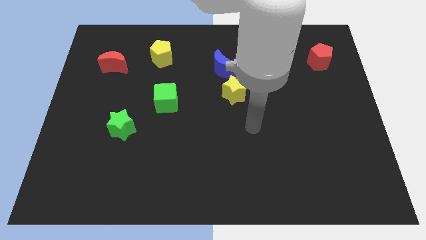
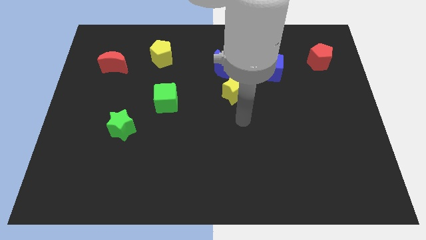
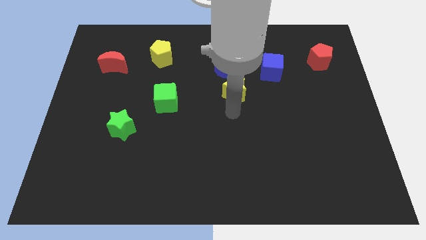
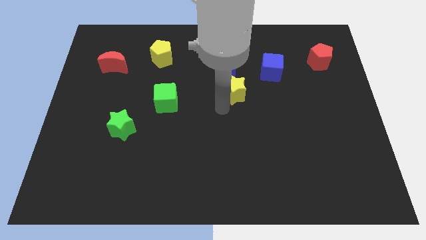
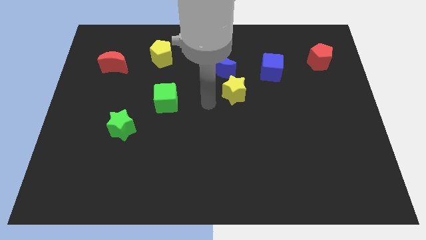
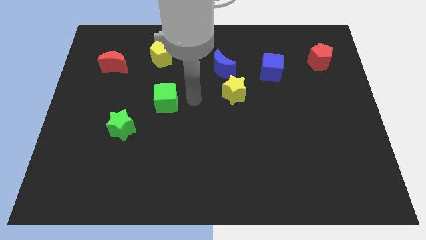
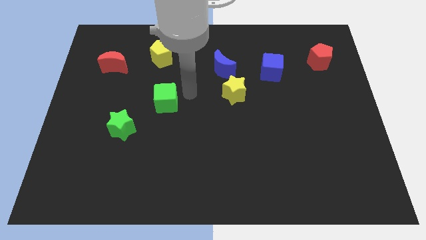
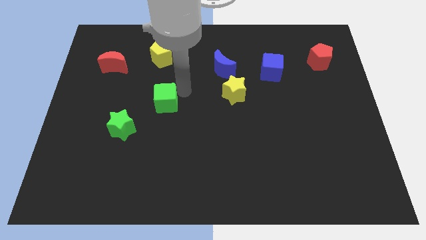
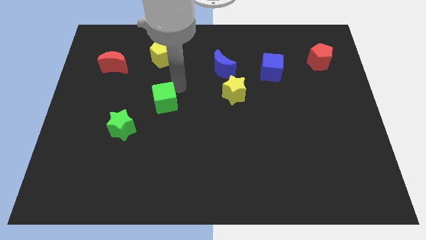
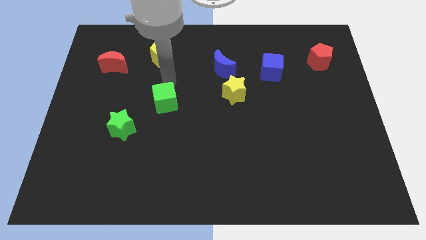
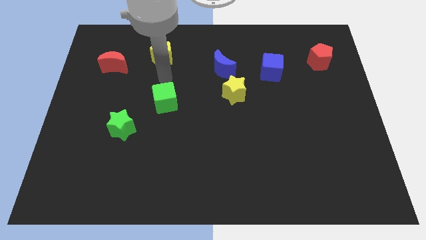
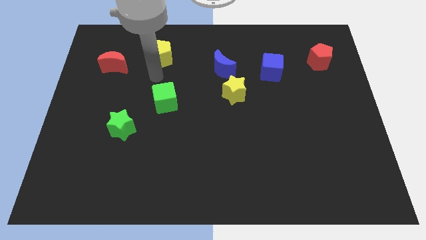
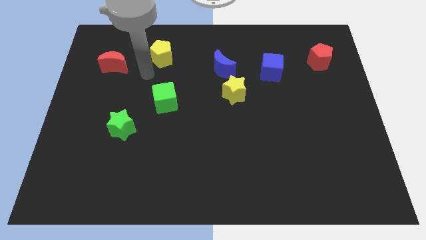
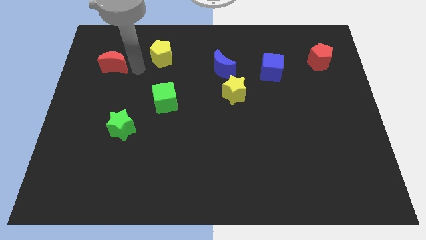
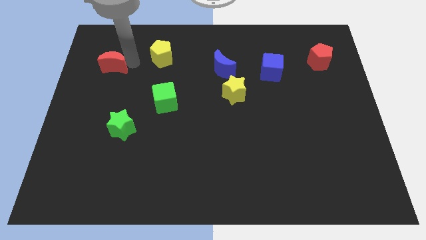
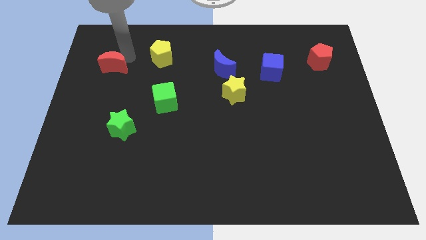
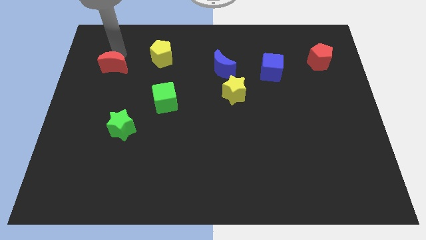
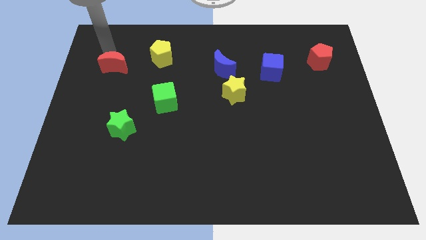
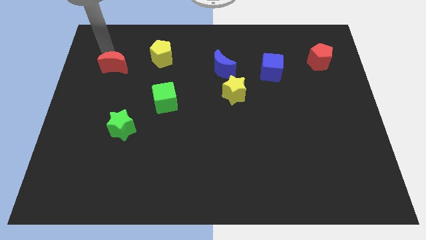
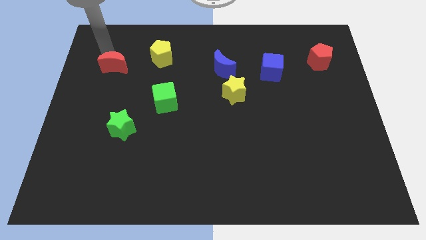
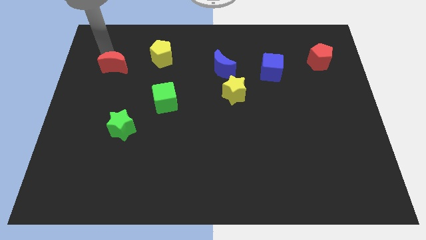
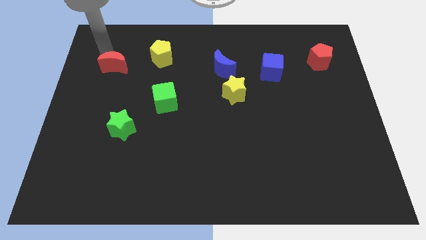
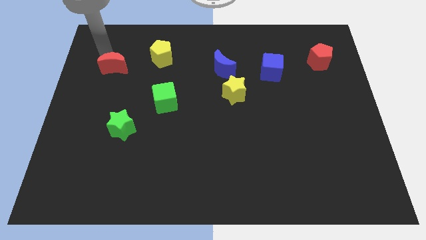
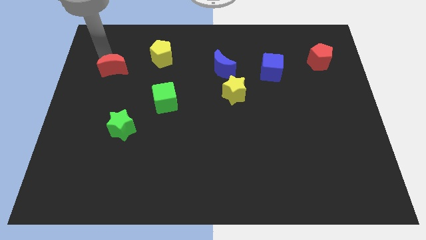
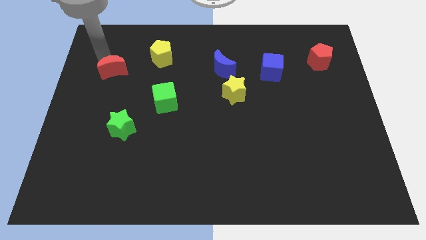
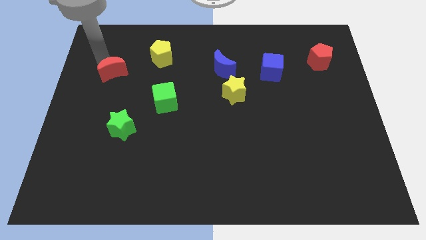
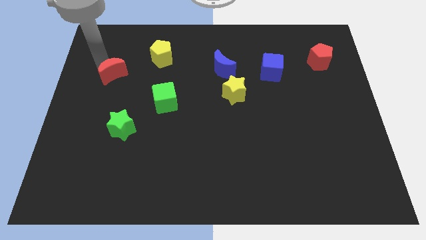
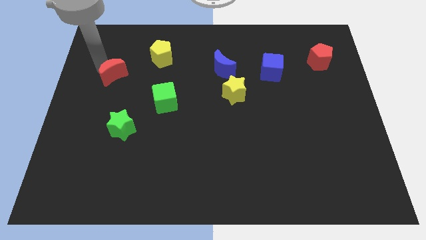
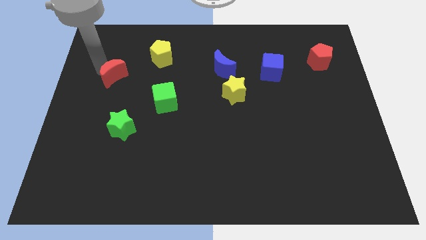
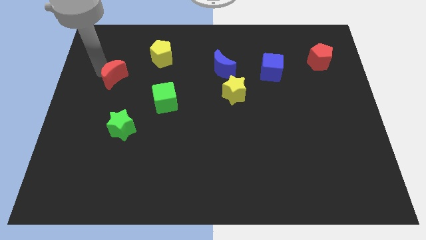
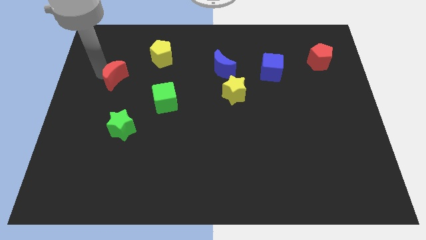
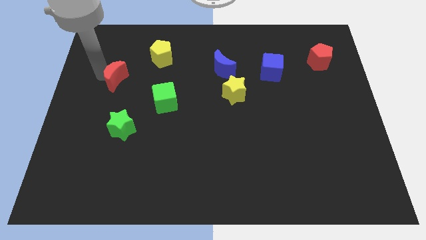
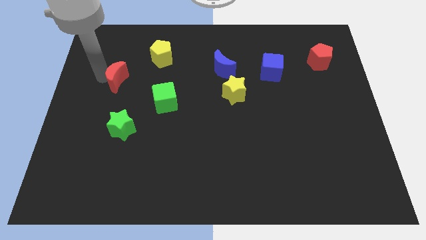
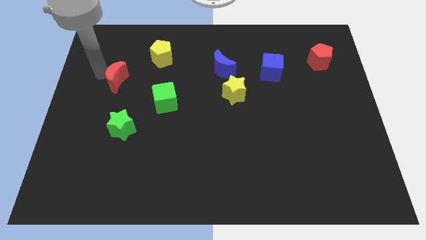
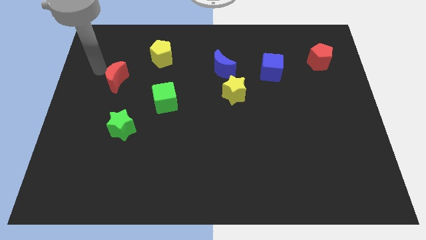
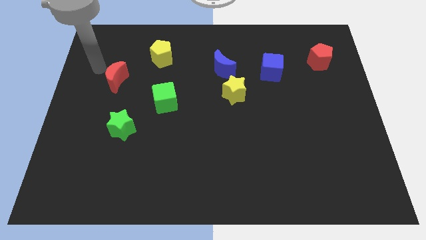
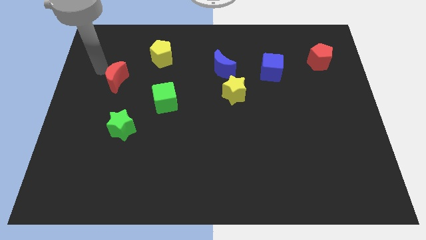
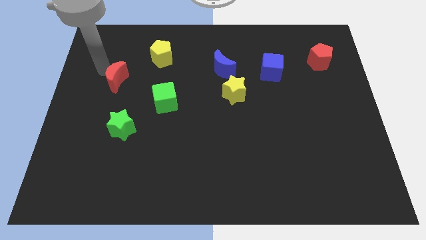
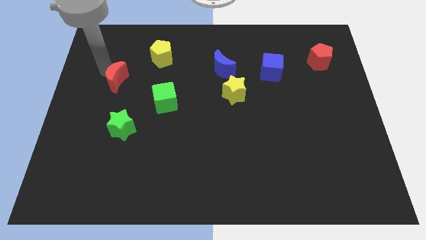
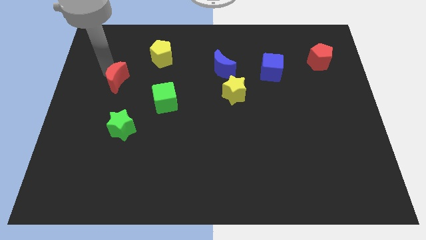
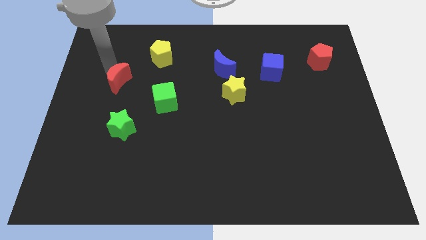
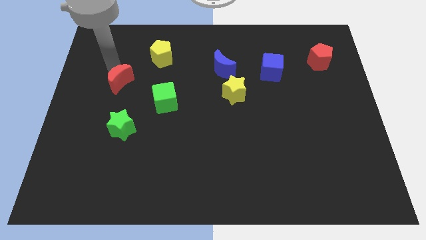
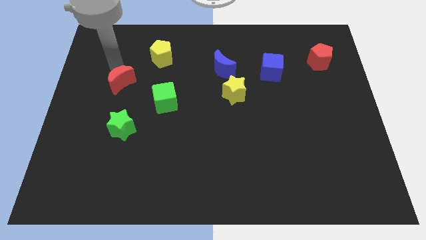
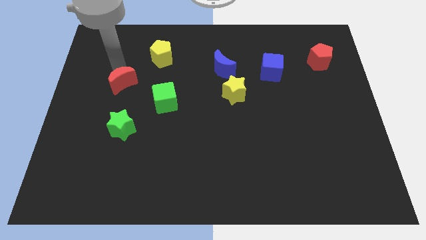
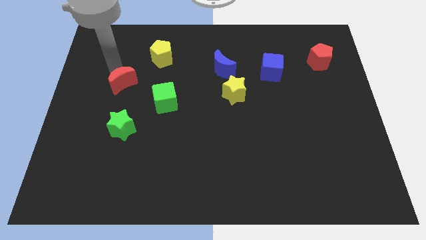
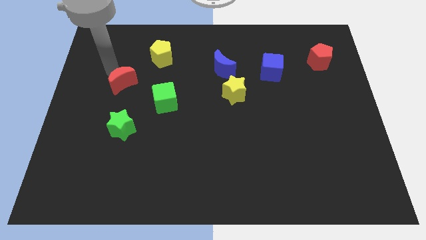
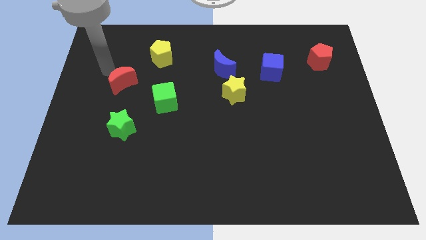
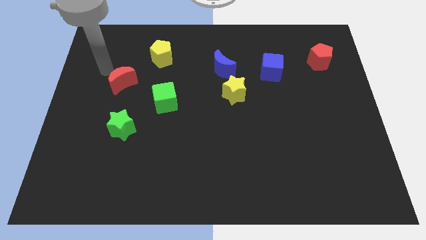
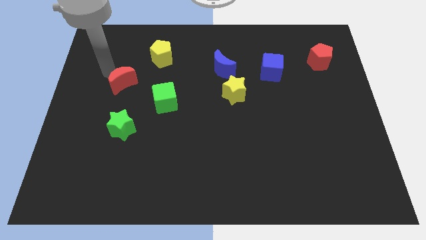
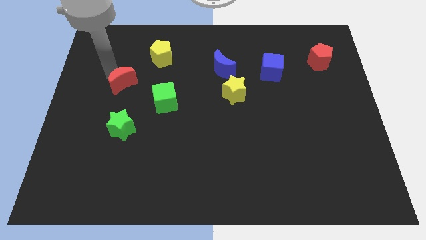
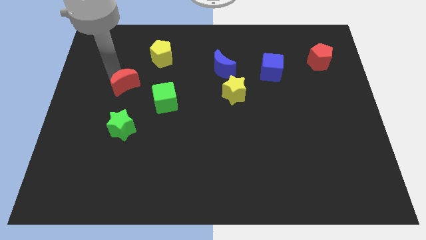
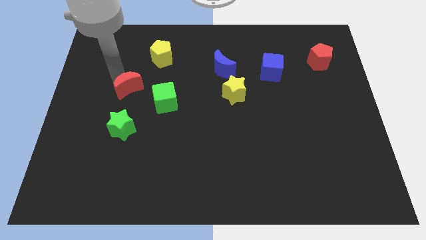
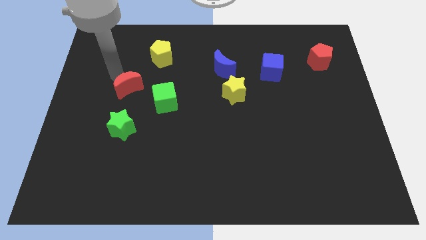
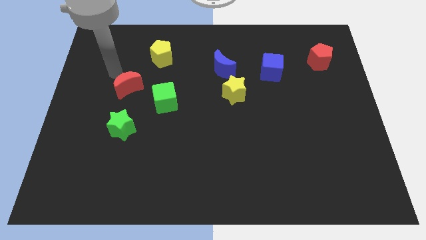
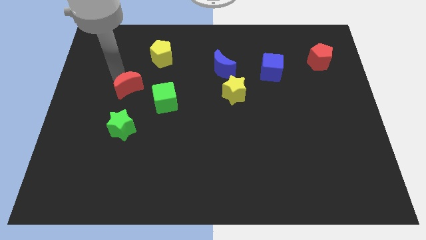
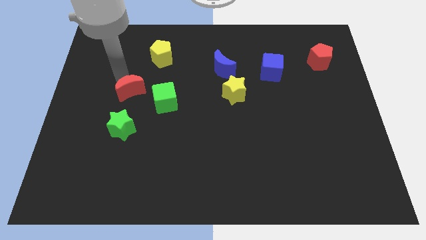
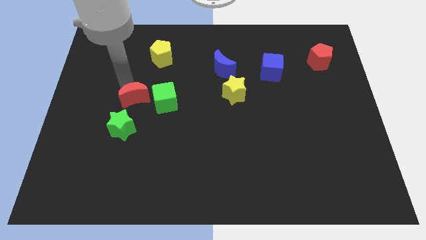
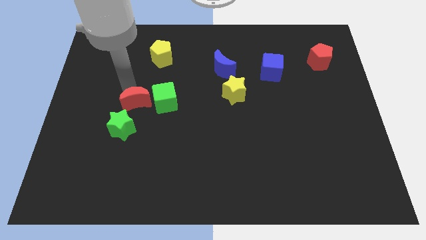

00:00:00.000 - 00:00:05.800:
put the red moon diagonally up and to the right of the green star

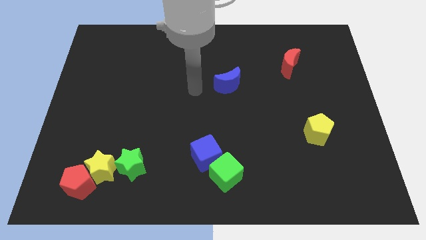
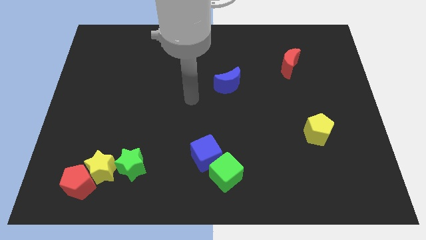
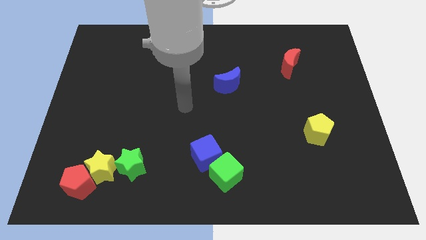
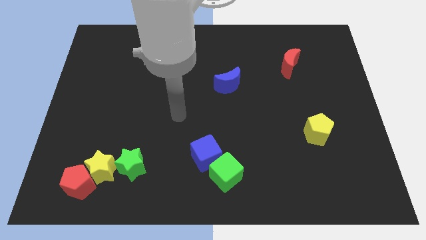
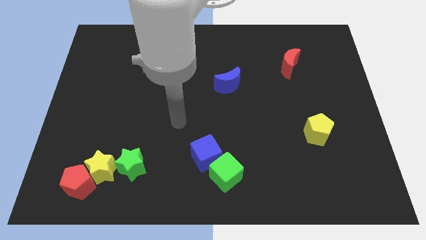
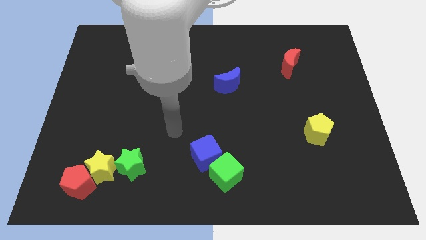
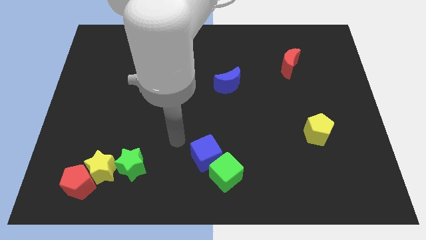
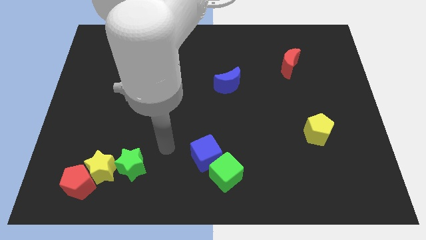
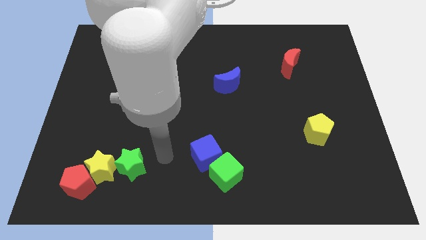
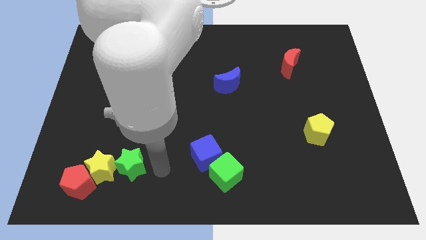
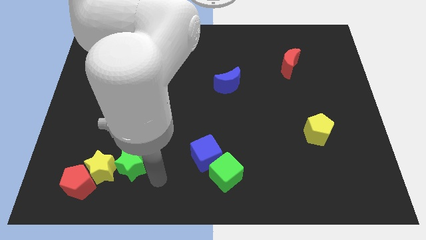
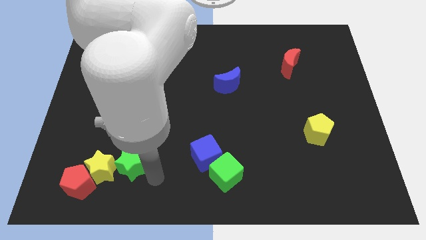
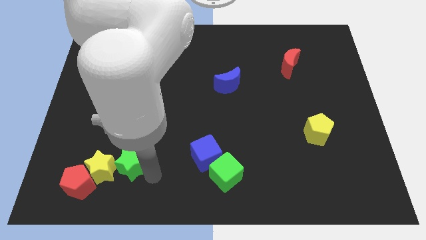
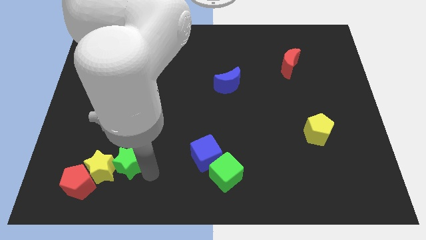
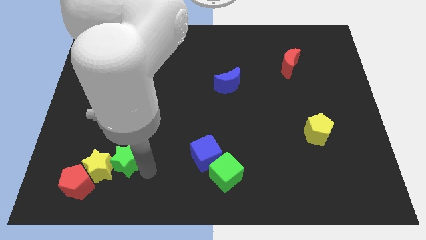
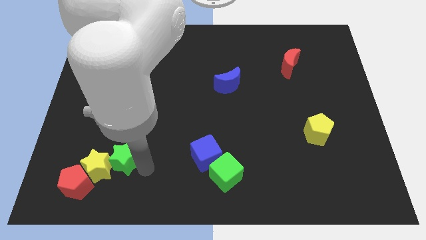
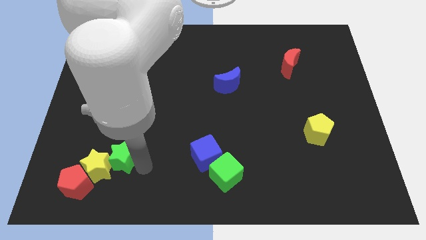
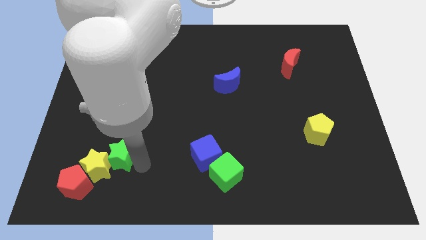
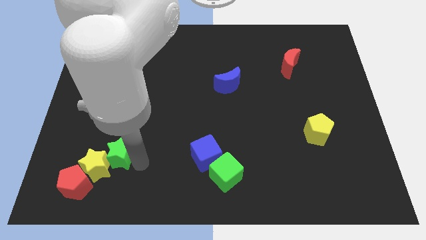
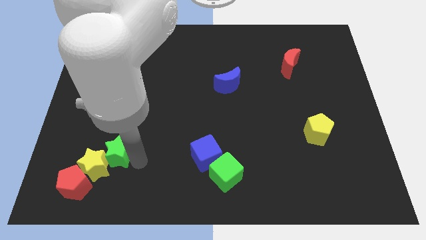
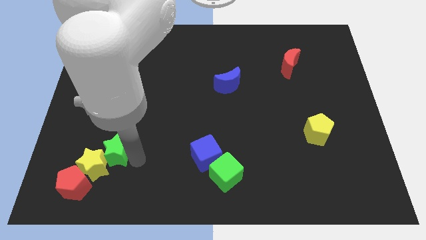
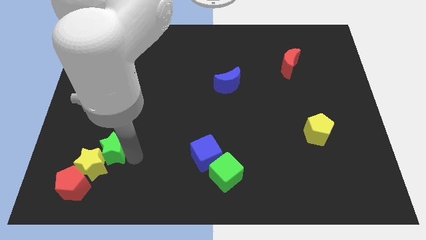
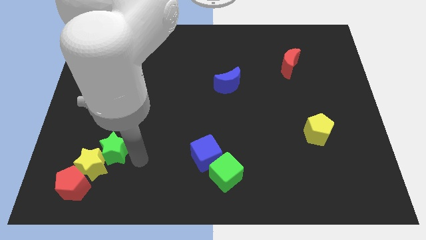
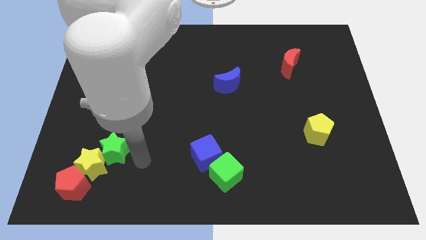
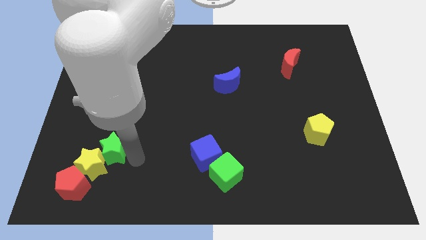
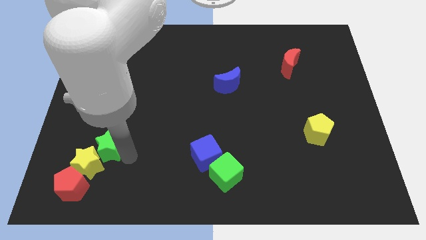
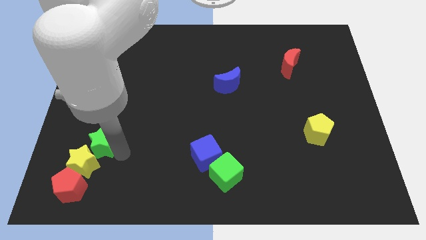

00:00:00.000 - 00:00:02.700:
put the green star to the top of the red pentagon
